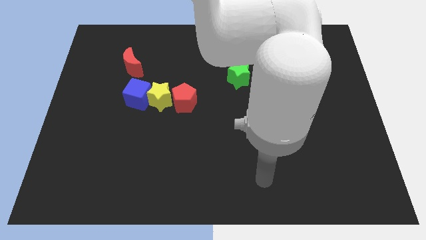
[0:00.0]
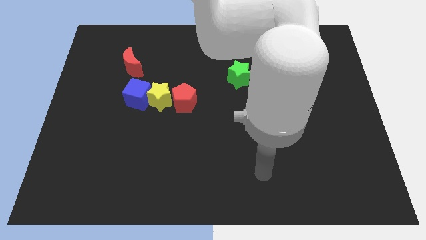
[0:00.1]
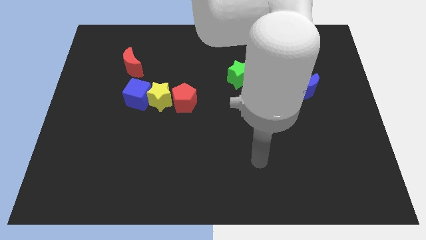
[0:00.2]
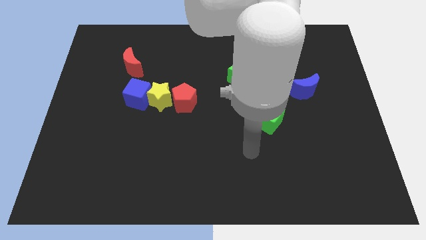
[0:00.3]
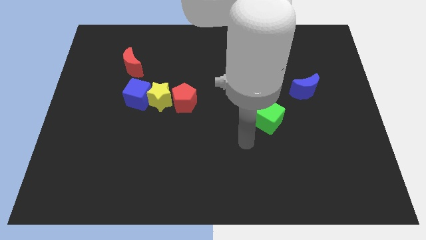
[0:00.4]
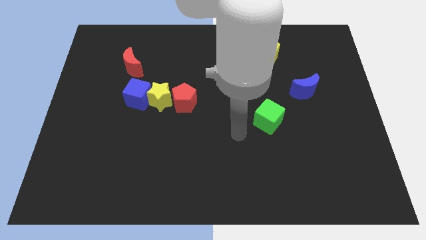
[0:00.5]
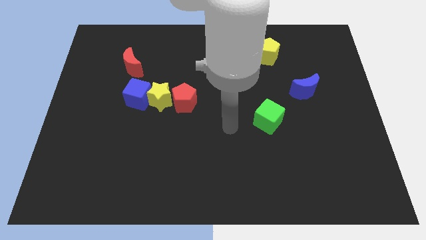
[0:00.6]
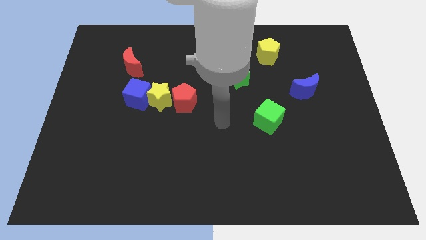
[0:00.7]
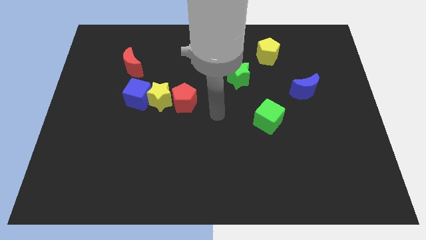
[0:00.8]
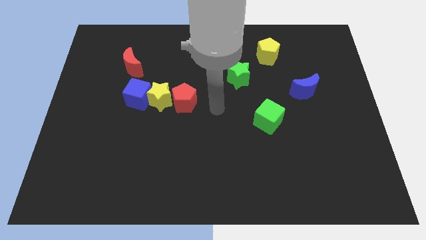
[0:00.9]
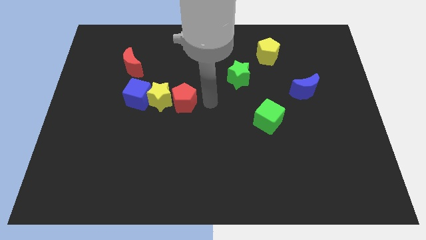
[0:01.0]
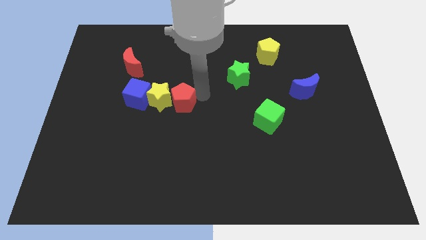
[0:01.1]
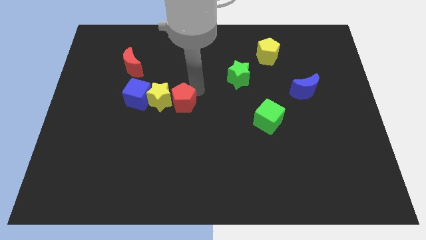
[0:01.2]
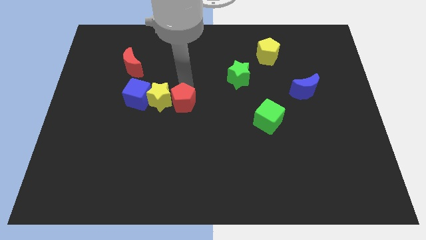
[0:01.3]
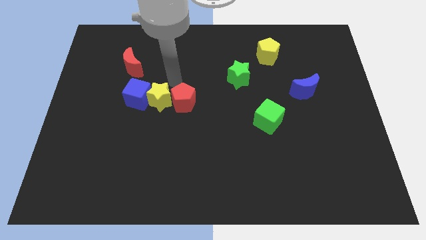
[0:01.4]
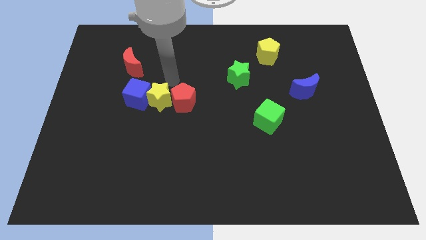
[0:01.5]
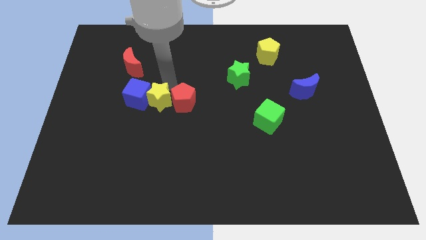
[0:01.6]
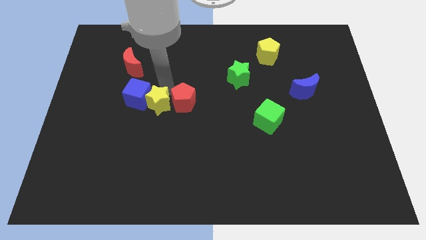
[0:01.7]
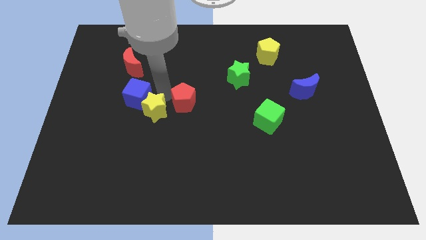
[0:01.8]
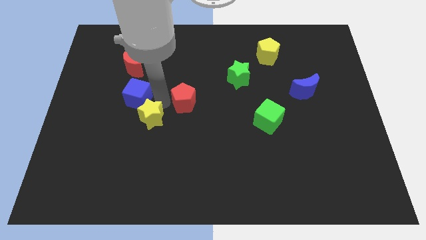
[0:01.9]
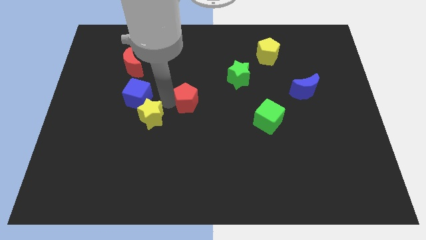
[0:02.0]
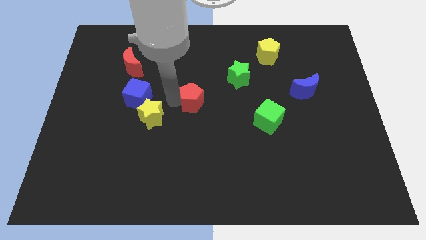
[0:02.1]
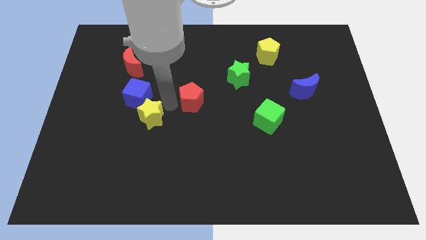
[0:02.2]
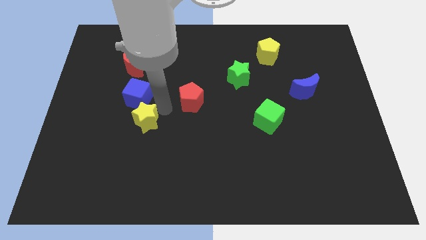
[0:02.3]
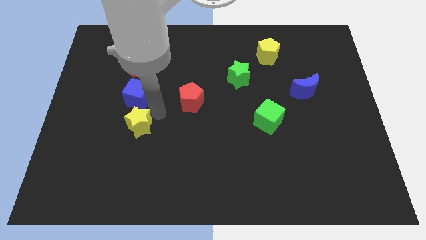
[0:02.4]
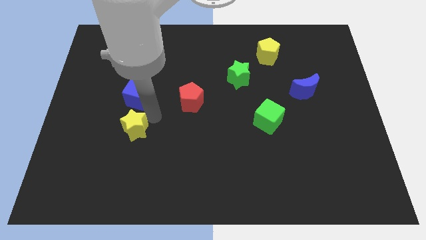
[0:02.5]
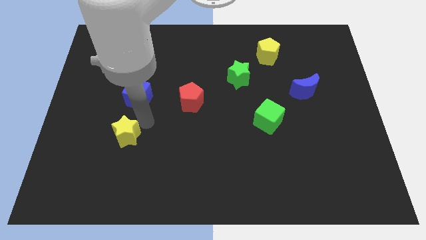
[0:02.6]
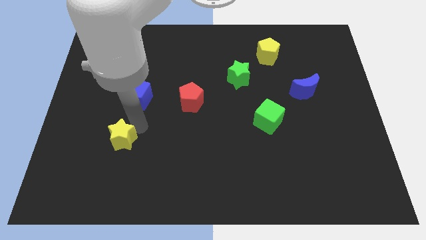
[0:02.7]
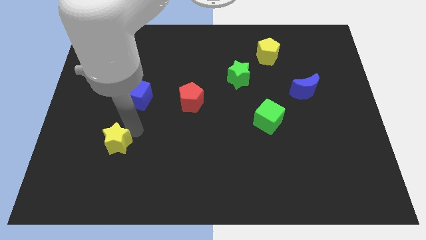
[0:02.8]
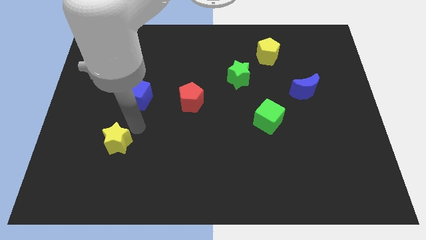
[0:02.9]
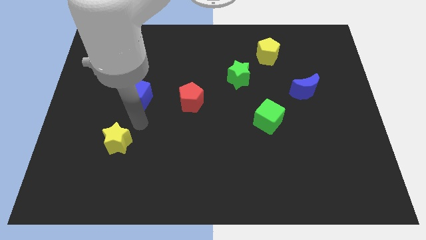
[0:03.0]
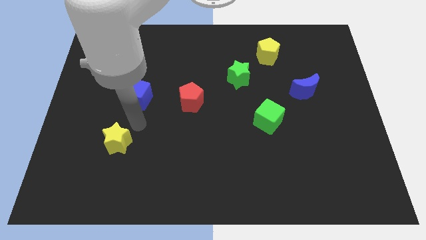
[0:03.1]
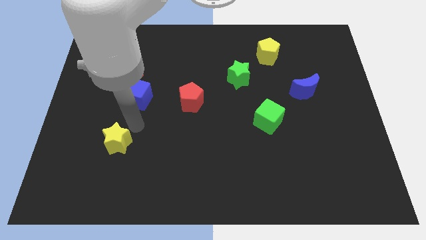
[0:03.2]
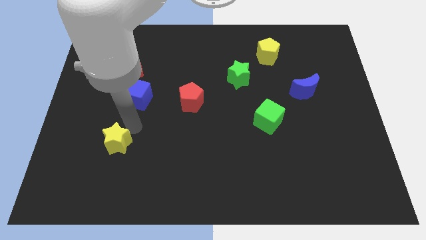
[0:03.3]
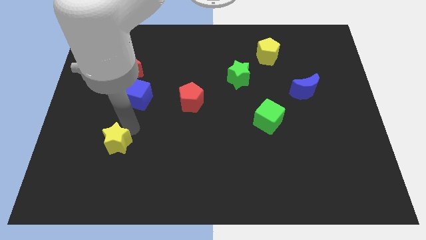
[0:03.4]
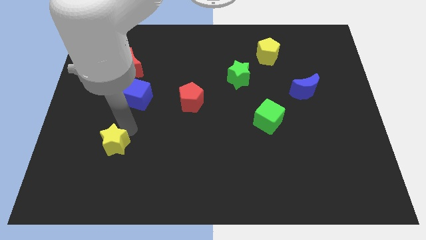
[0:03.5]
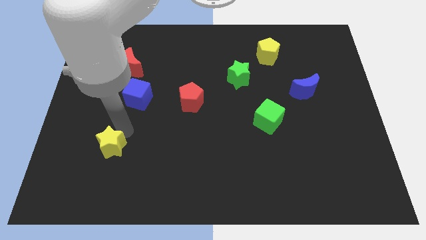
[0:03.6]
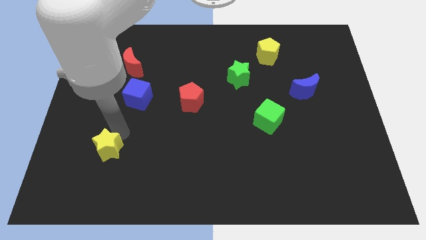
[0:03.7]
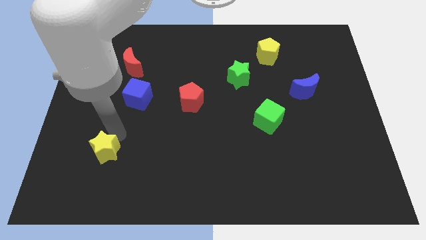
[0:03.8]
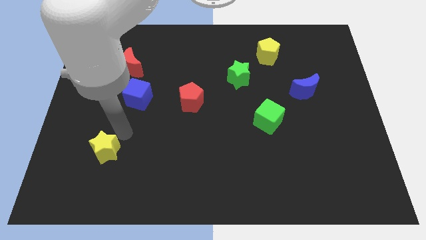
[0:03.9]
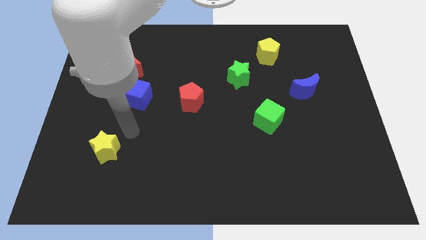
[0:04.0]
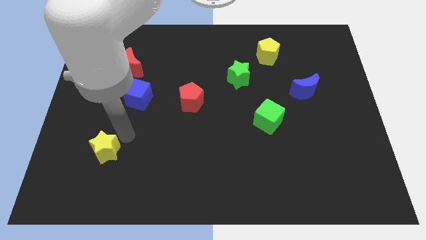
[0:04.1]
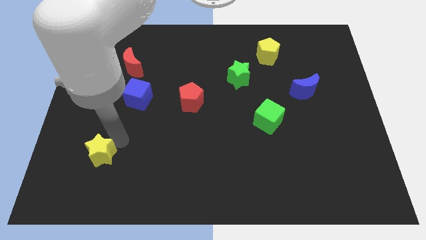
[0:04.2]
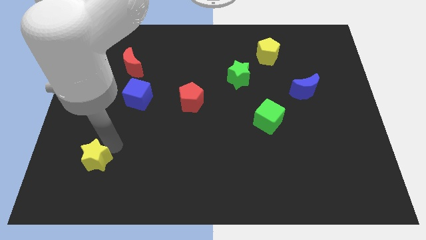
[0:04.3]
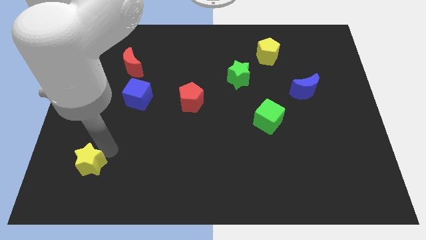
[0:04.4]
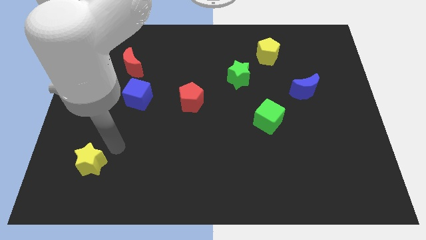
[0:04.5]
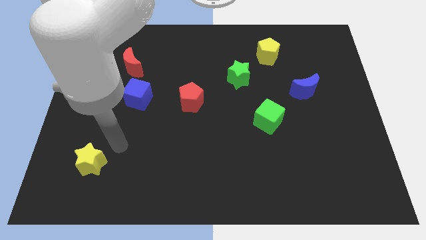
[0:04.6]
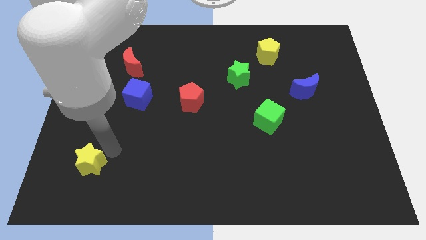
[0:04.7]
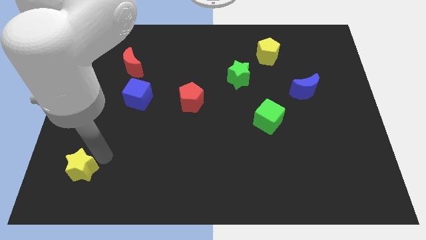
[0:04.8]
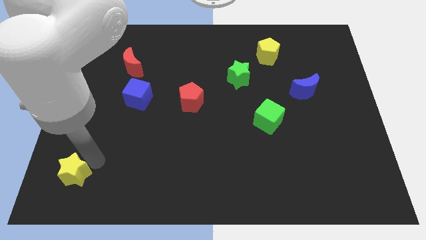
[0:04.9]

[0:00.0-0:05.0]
put the yellow star to the lower left corner

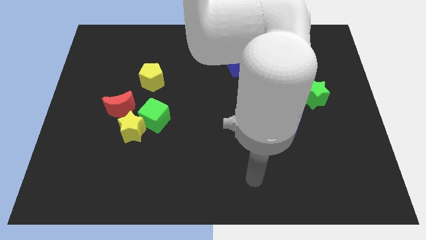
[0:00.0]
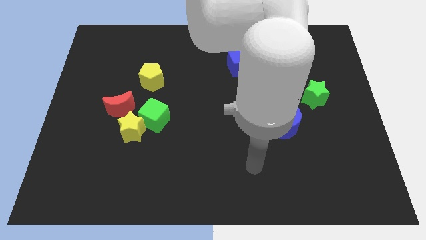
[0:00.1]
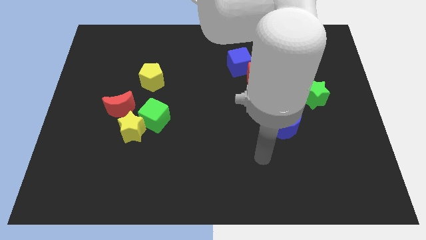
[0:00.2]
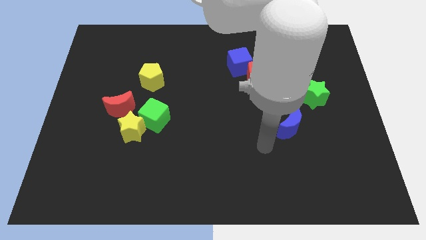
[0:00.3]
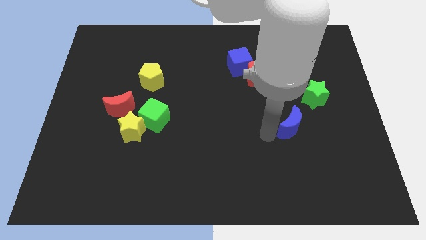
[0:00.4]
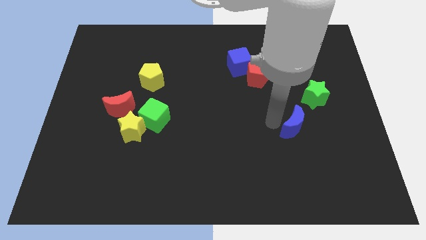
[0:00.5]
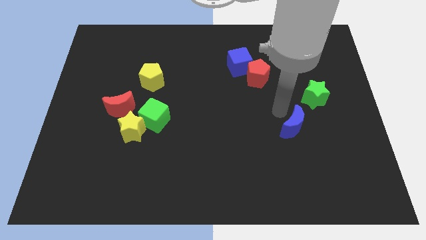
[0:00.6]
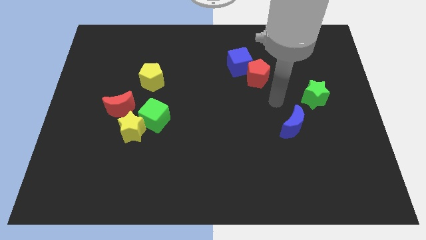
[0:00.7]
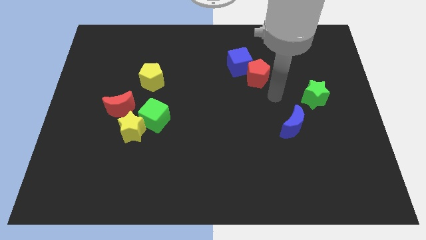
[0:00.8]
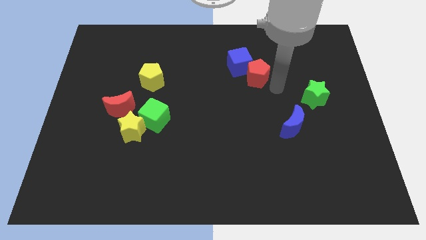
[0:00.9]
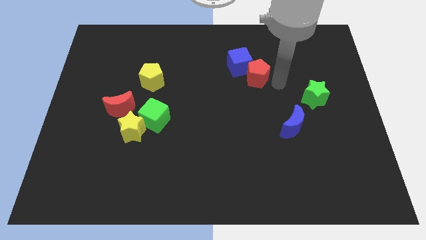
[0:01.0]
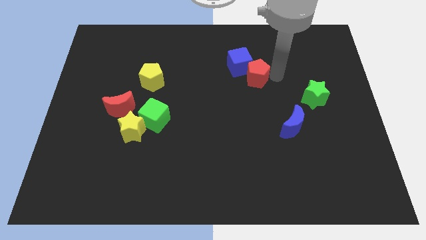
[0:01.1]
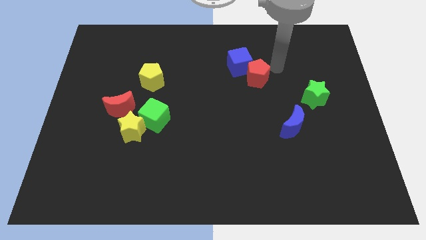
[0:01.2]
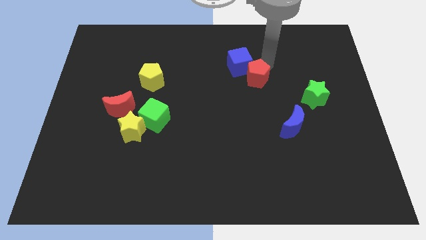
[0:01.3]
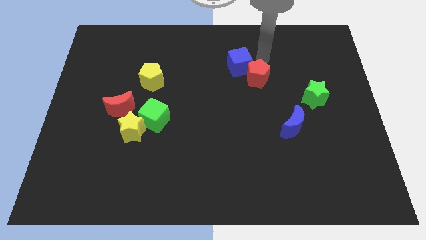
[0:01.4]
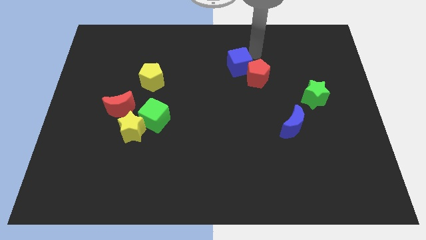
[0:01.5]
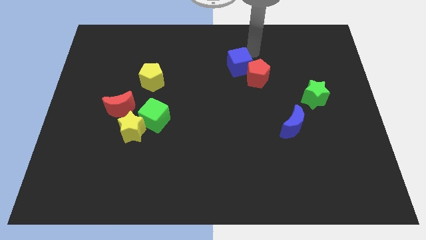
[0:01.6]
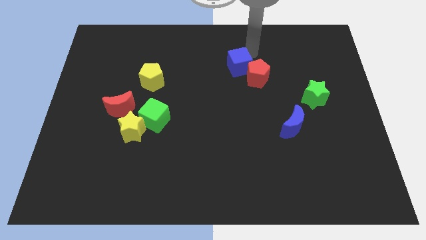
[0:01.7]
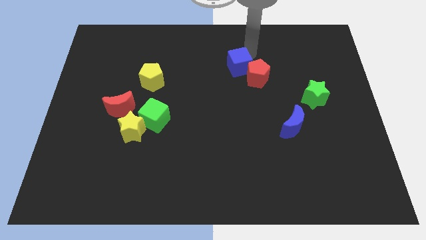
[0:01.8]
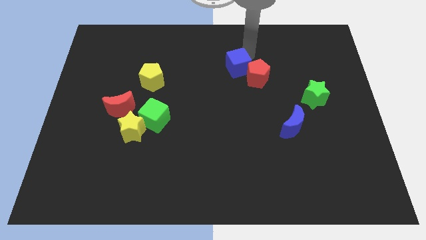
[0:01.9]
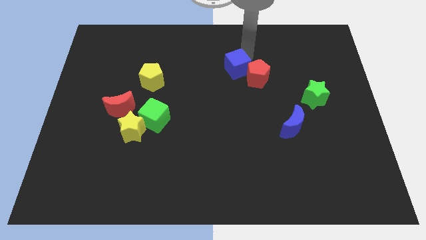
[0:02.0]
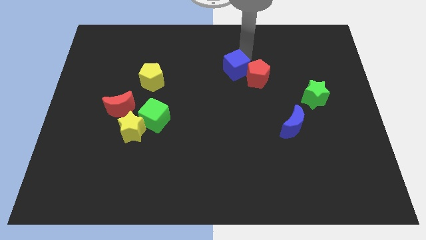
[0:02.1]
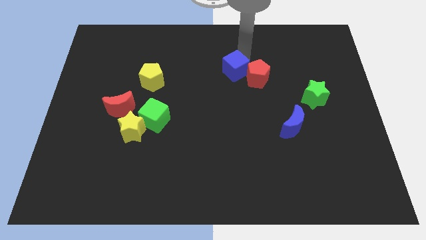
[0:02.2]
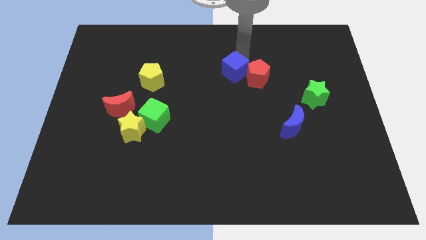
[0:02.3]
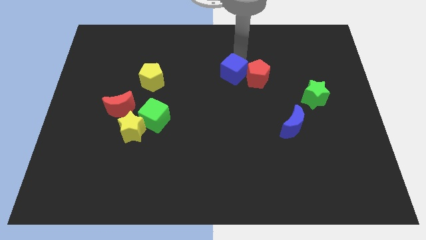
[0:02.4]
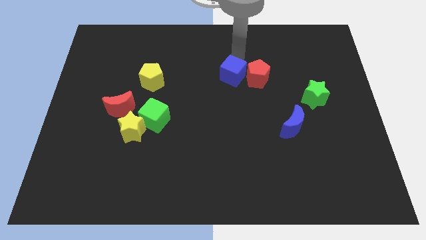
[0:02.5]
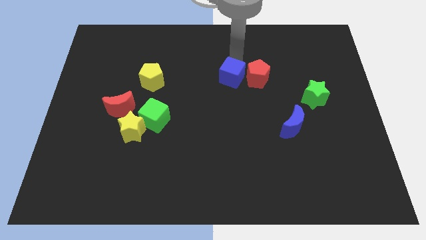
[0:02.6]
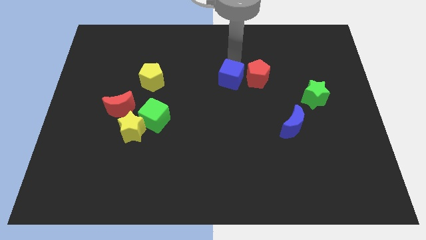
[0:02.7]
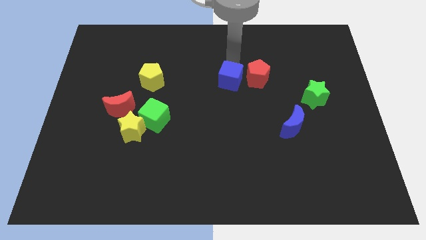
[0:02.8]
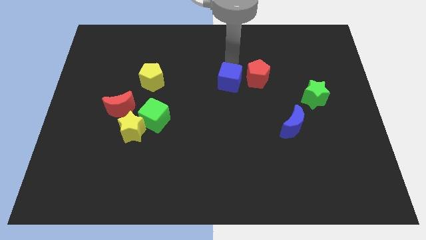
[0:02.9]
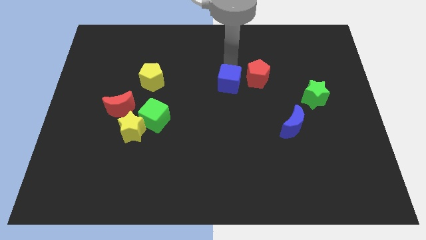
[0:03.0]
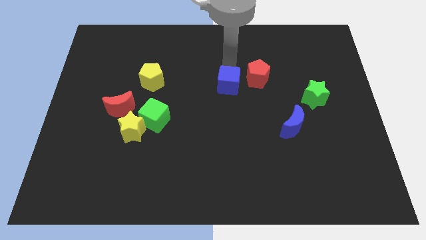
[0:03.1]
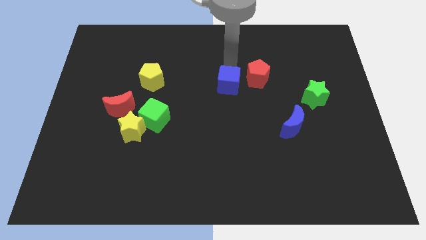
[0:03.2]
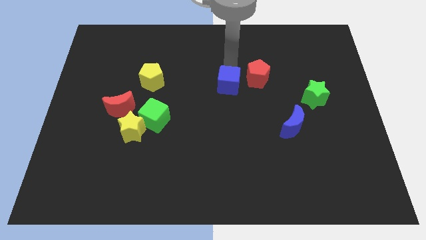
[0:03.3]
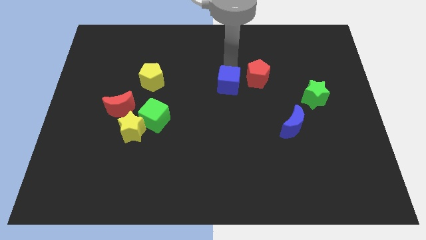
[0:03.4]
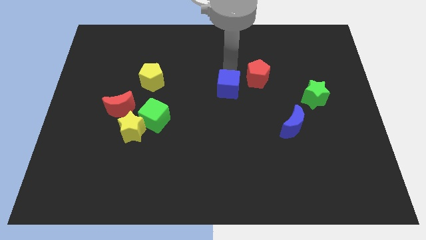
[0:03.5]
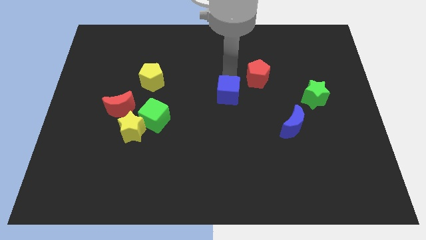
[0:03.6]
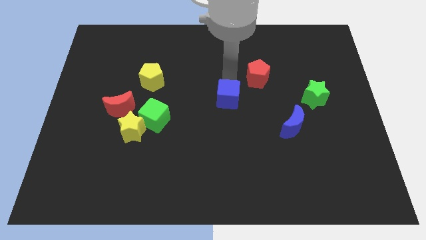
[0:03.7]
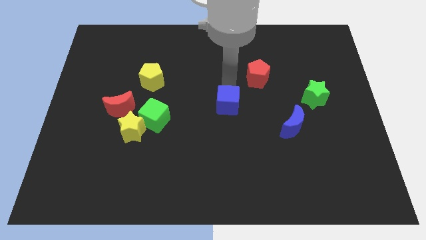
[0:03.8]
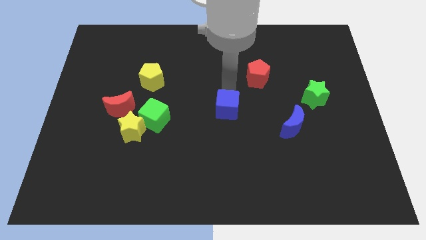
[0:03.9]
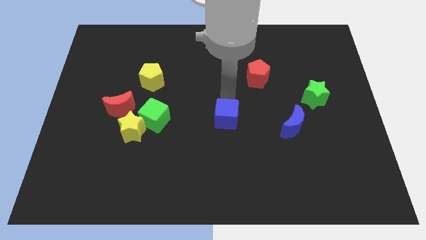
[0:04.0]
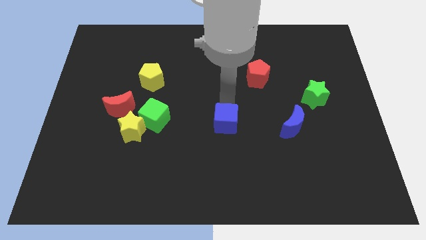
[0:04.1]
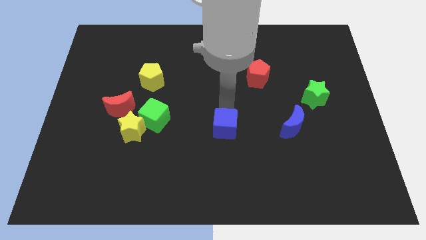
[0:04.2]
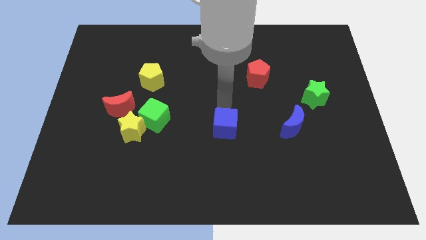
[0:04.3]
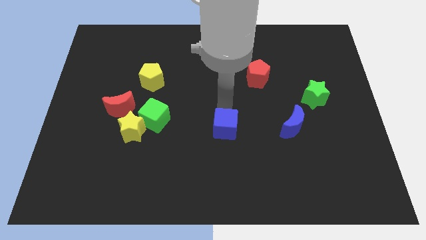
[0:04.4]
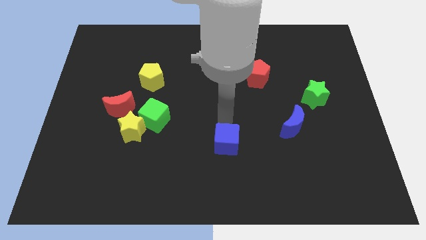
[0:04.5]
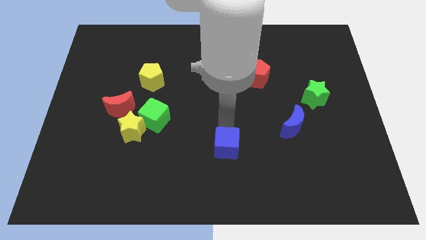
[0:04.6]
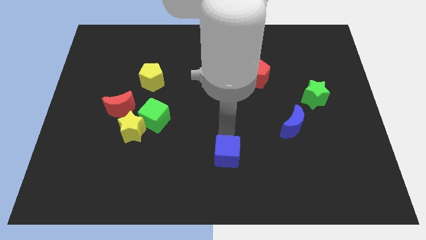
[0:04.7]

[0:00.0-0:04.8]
put the blue cube to the bottom
